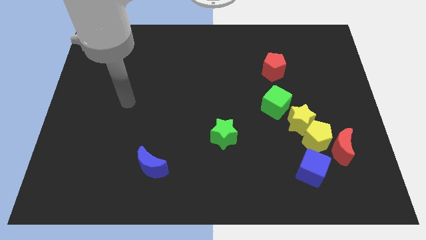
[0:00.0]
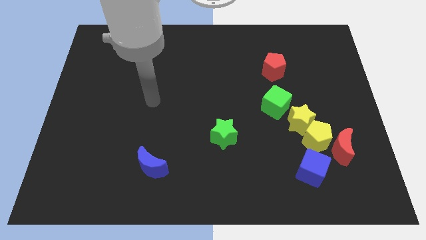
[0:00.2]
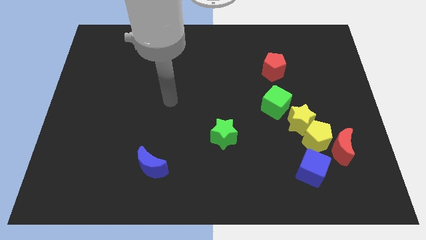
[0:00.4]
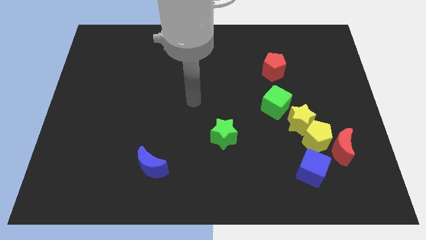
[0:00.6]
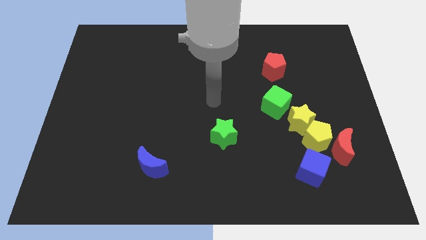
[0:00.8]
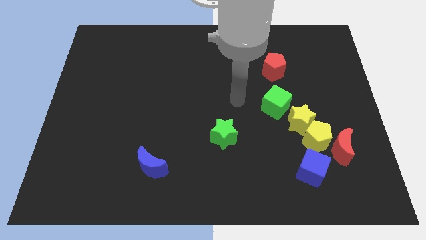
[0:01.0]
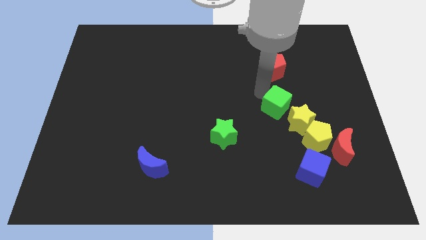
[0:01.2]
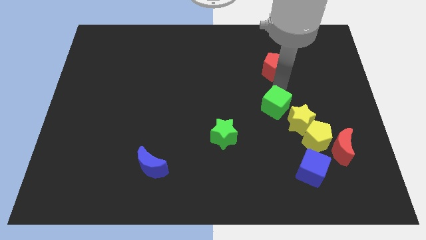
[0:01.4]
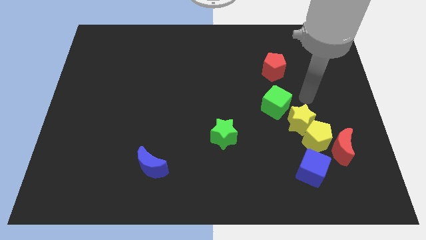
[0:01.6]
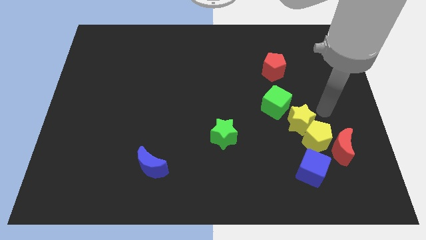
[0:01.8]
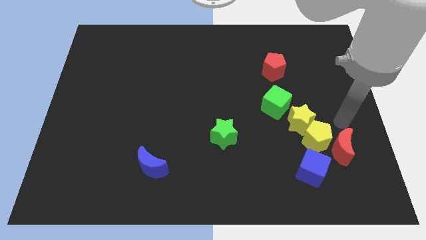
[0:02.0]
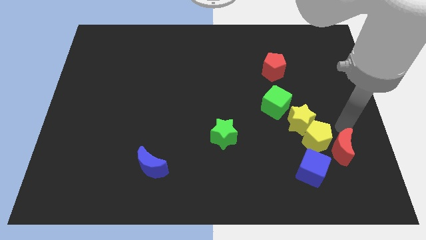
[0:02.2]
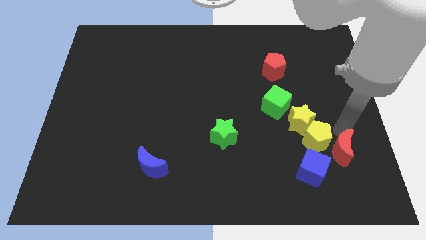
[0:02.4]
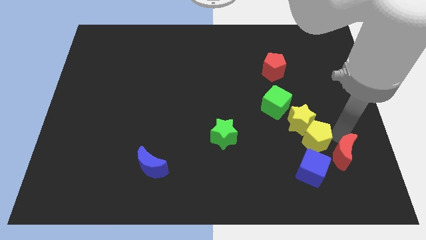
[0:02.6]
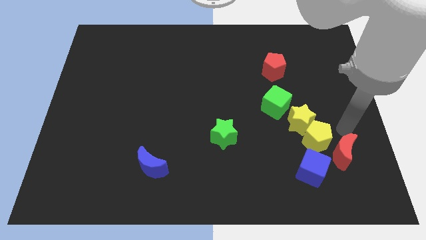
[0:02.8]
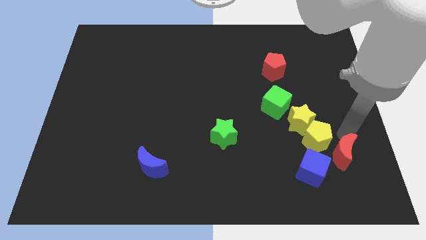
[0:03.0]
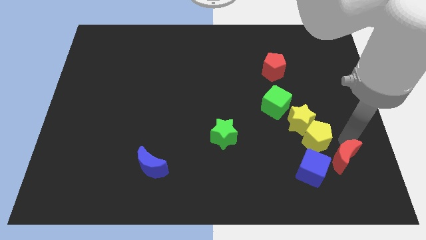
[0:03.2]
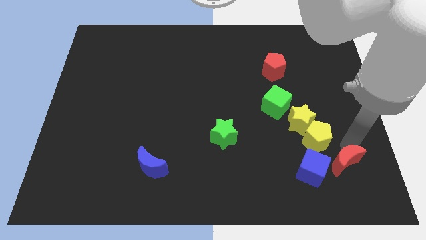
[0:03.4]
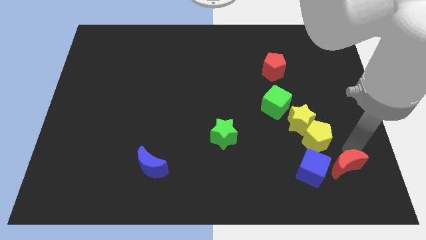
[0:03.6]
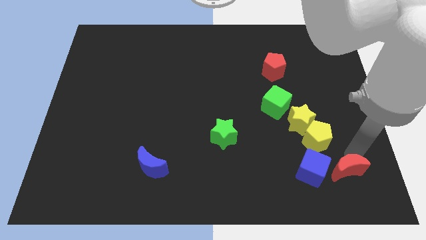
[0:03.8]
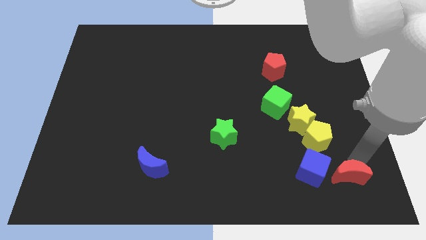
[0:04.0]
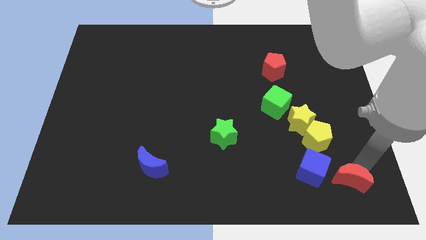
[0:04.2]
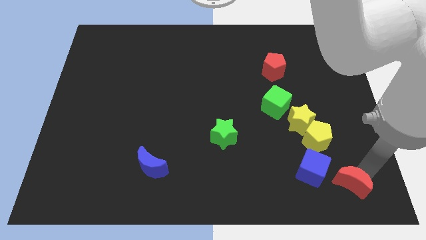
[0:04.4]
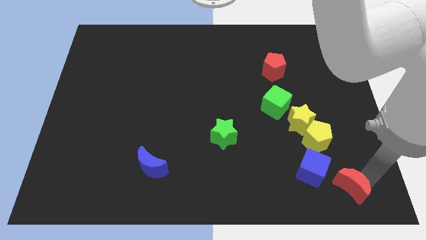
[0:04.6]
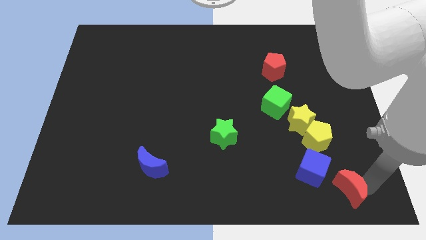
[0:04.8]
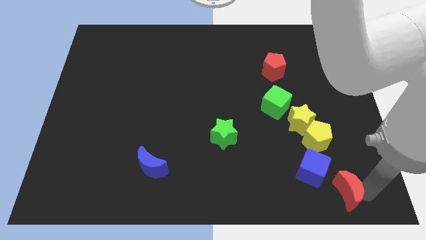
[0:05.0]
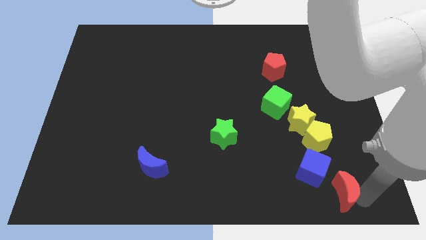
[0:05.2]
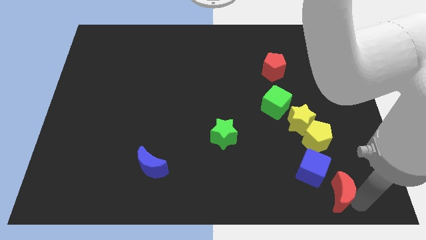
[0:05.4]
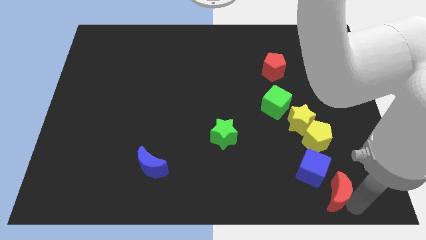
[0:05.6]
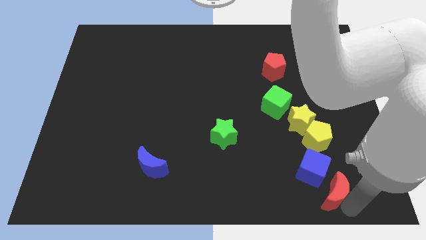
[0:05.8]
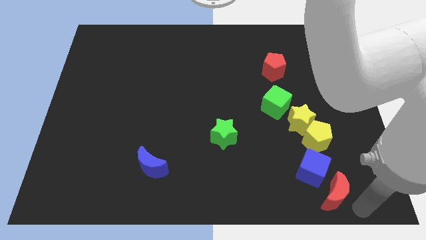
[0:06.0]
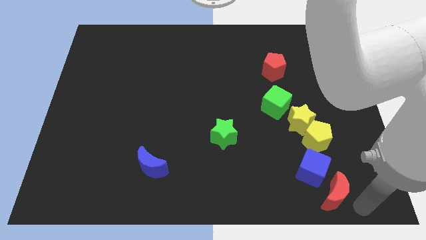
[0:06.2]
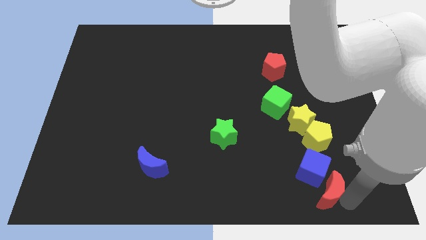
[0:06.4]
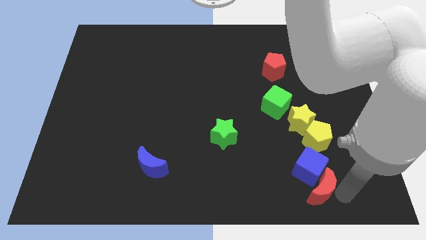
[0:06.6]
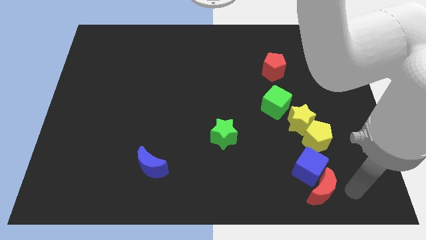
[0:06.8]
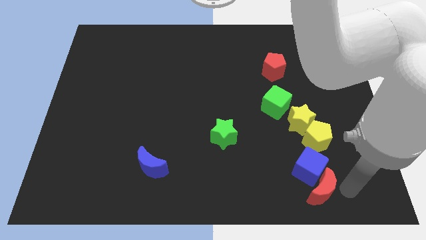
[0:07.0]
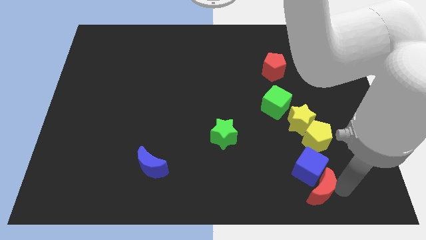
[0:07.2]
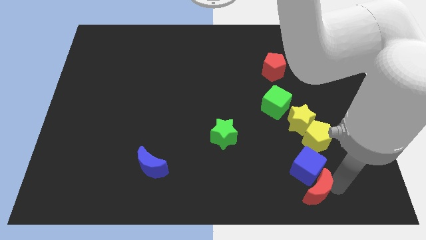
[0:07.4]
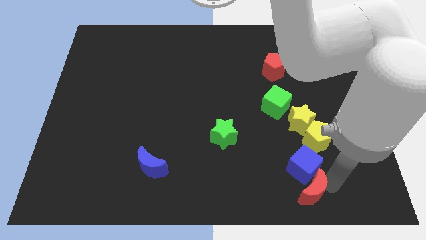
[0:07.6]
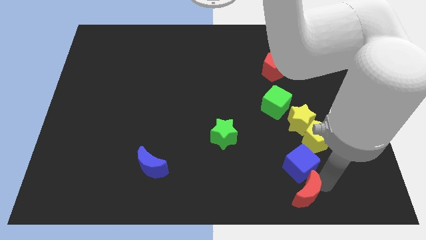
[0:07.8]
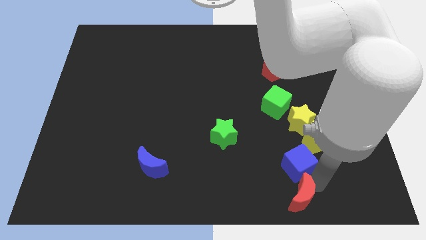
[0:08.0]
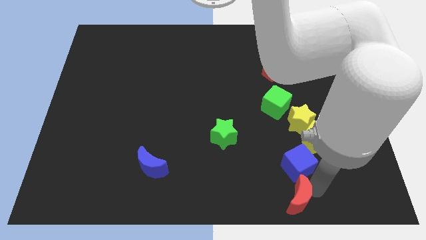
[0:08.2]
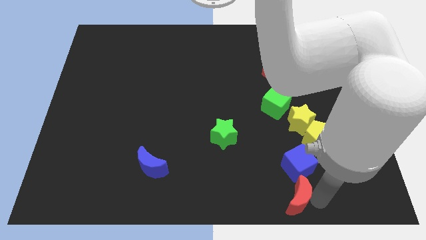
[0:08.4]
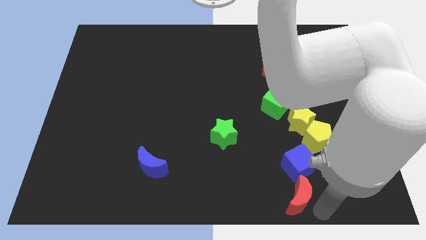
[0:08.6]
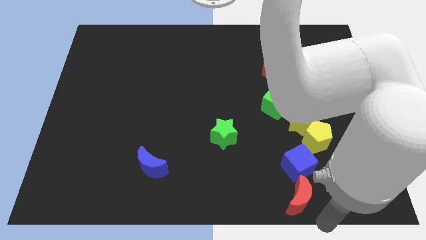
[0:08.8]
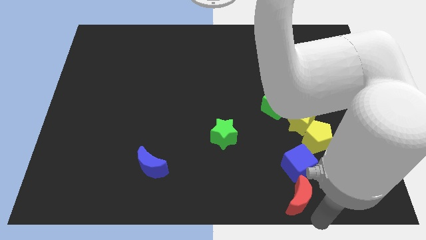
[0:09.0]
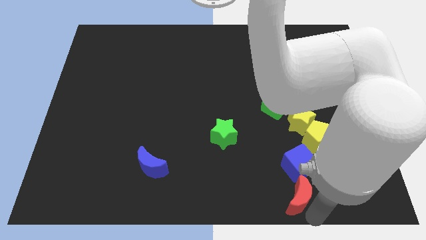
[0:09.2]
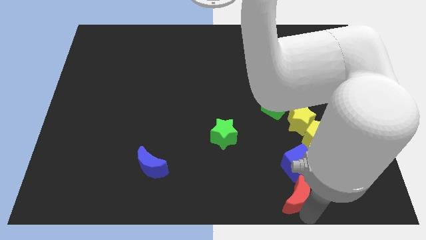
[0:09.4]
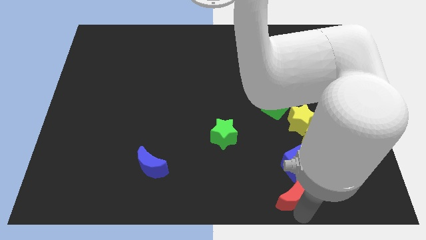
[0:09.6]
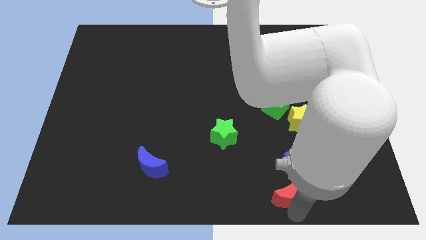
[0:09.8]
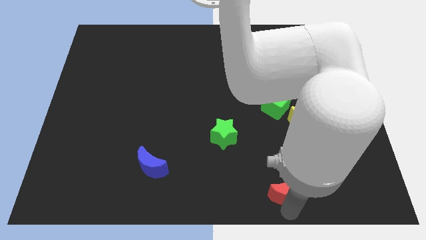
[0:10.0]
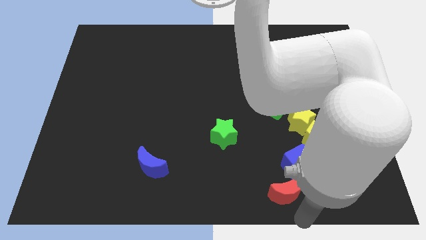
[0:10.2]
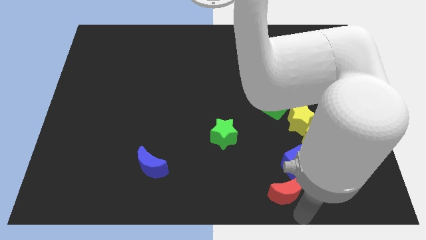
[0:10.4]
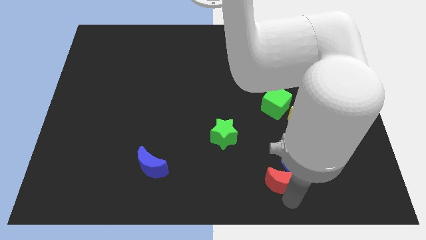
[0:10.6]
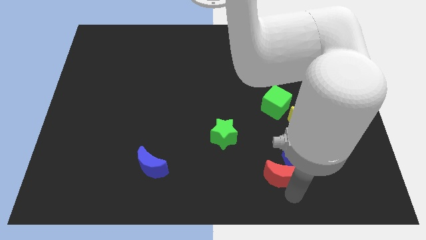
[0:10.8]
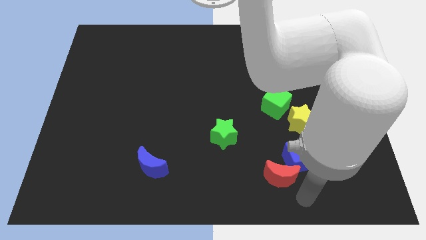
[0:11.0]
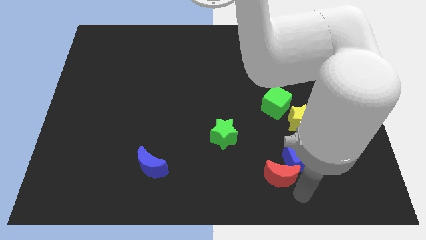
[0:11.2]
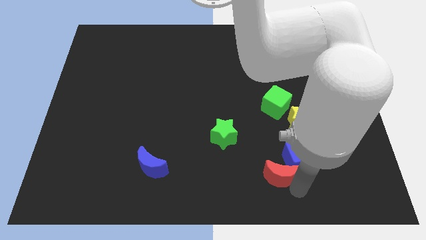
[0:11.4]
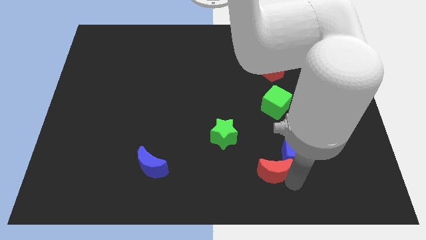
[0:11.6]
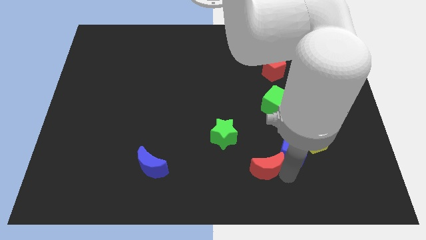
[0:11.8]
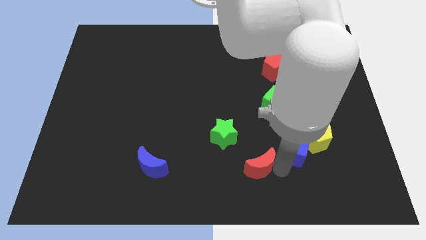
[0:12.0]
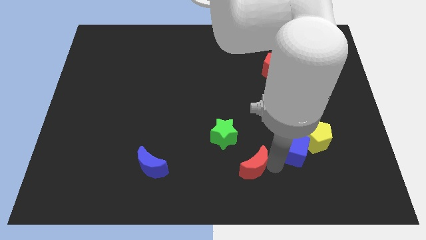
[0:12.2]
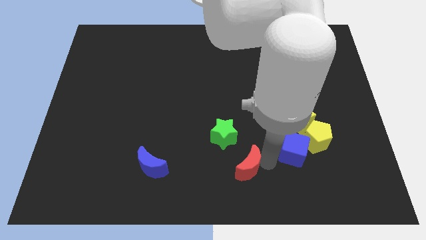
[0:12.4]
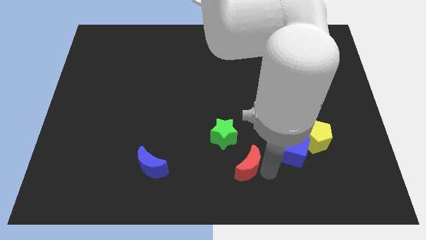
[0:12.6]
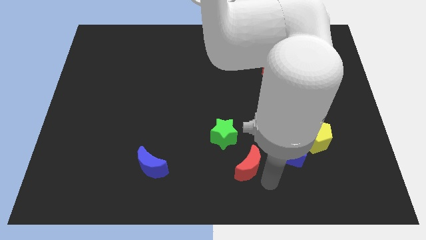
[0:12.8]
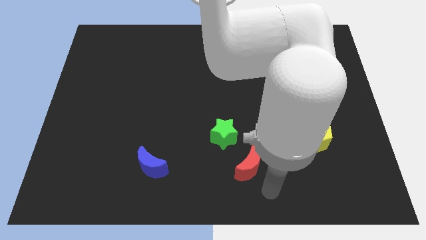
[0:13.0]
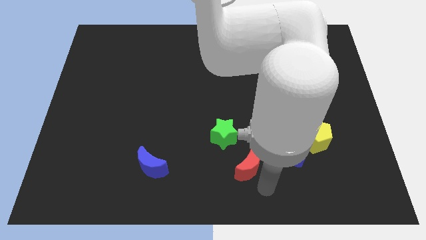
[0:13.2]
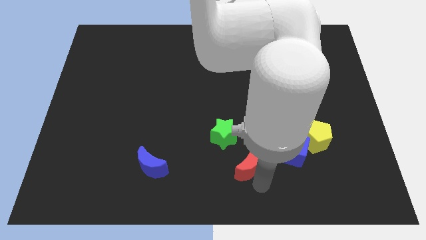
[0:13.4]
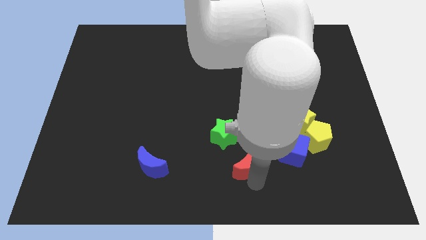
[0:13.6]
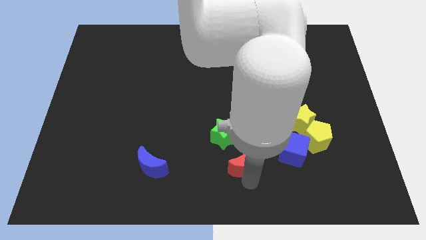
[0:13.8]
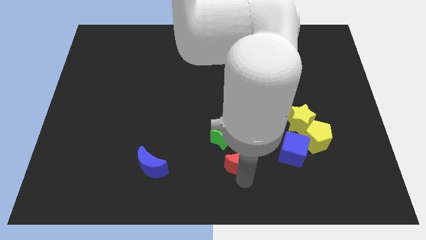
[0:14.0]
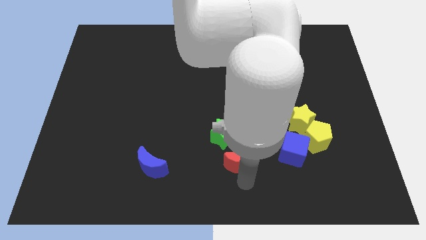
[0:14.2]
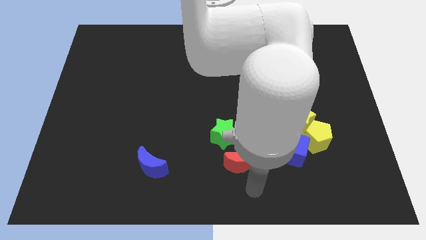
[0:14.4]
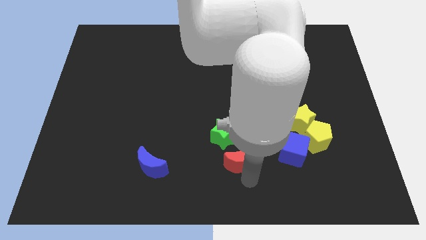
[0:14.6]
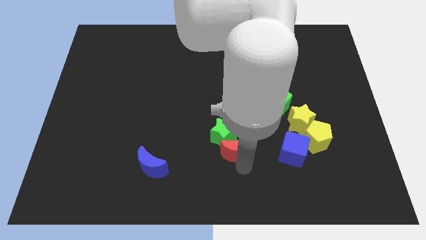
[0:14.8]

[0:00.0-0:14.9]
put the red moon towards the green star
